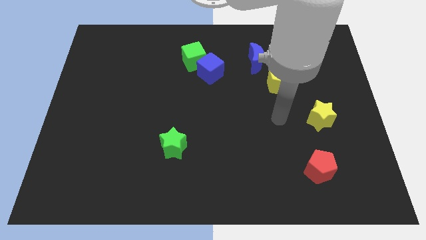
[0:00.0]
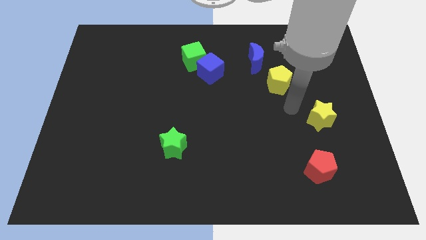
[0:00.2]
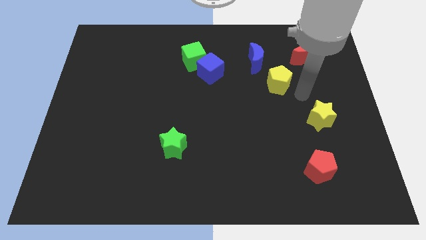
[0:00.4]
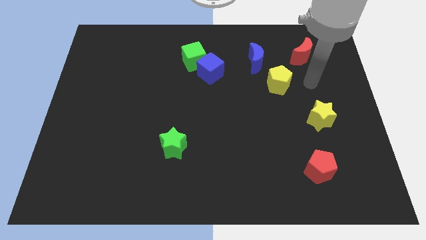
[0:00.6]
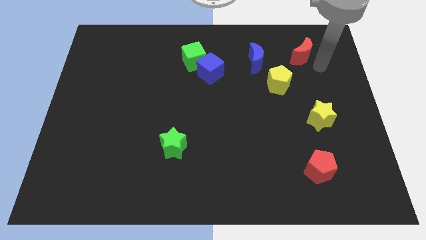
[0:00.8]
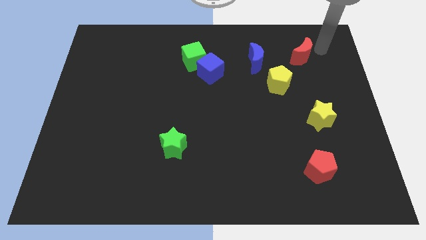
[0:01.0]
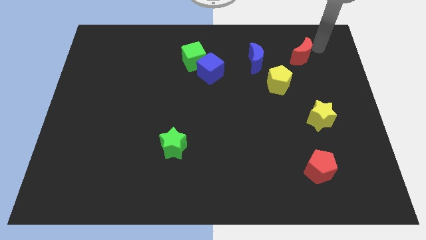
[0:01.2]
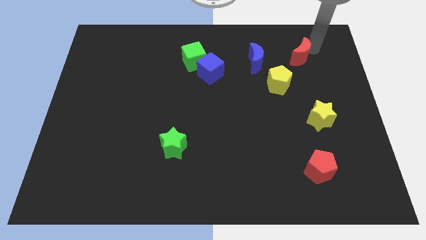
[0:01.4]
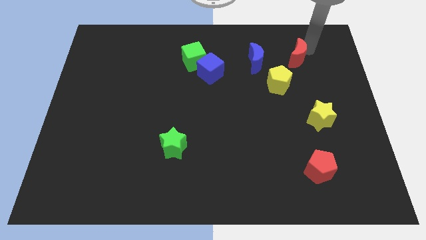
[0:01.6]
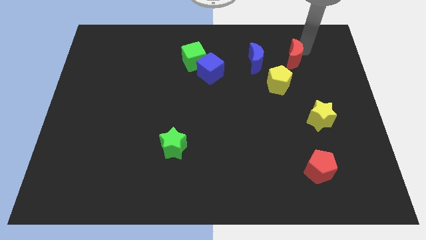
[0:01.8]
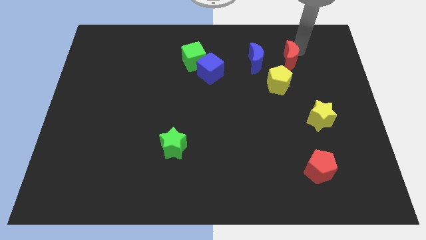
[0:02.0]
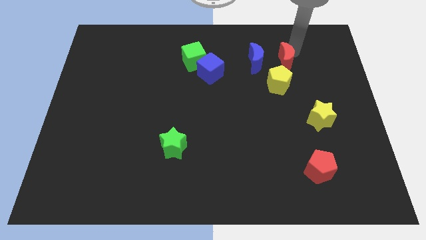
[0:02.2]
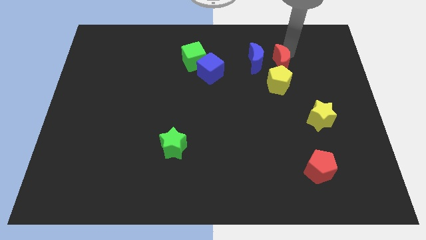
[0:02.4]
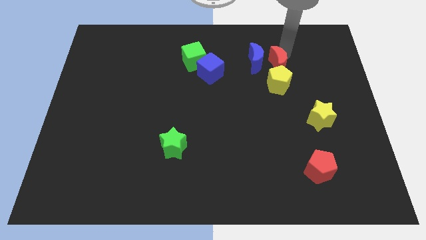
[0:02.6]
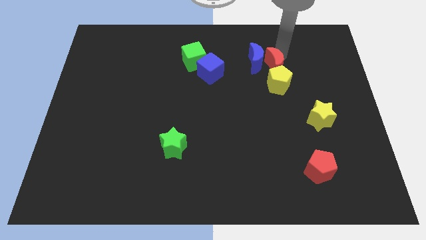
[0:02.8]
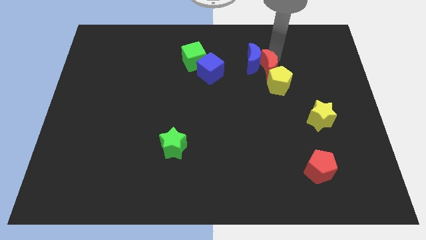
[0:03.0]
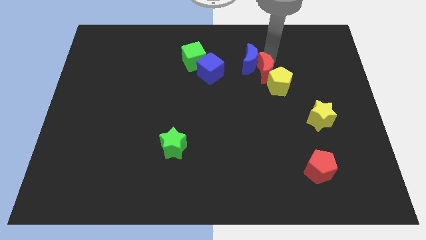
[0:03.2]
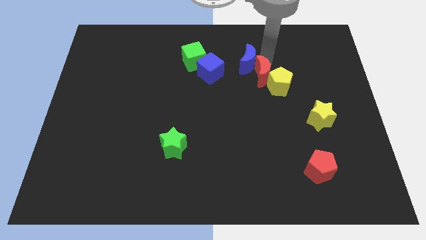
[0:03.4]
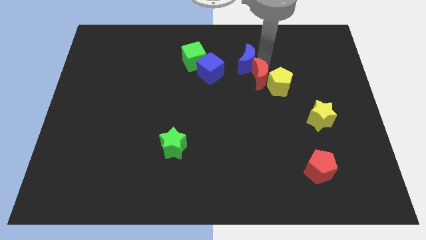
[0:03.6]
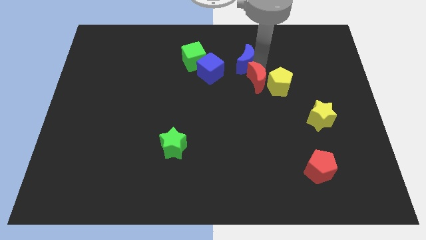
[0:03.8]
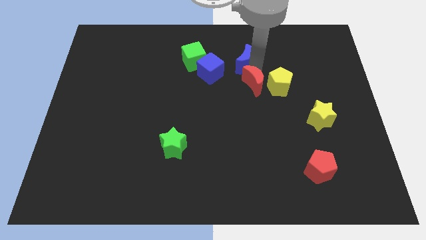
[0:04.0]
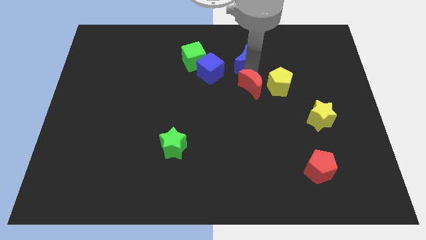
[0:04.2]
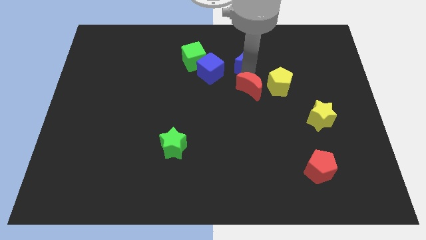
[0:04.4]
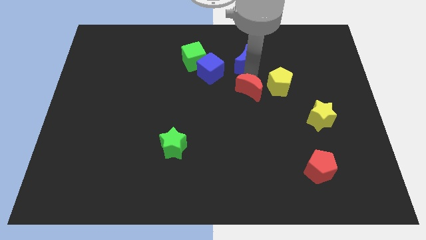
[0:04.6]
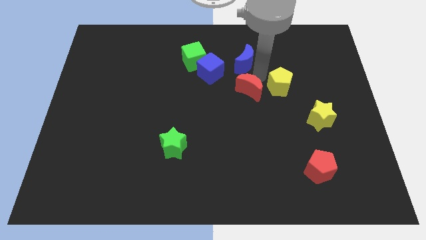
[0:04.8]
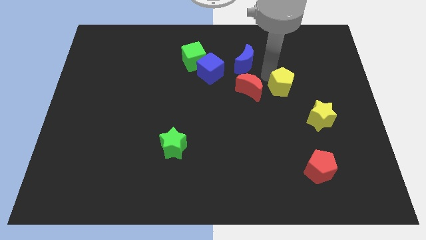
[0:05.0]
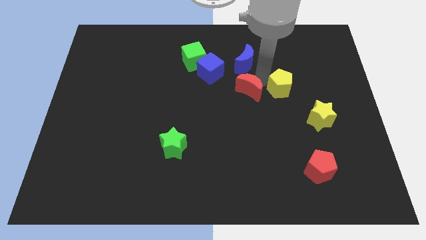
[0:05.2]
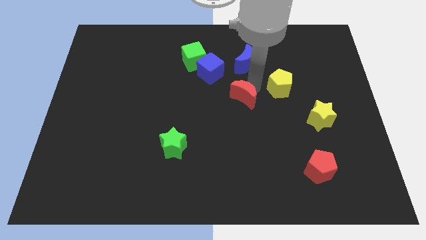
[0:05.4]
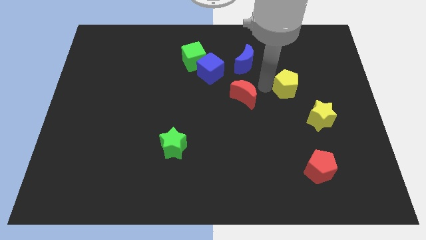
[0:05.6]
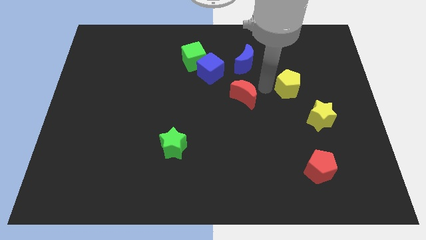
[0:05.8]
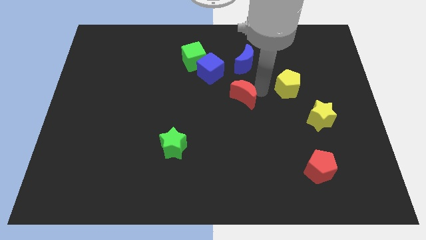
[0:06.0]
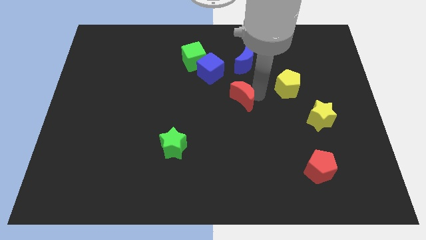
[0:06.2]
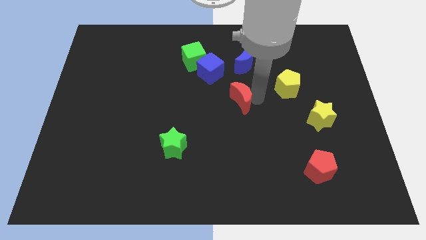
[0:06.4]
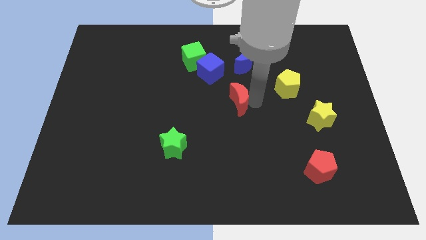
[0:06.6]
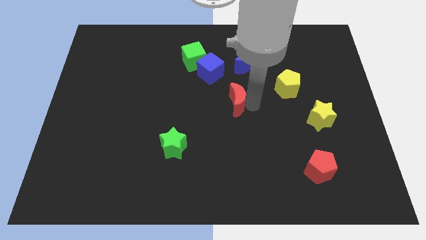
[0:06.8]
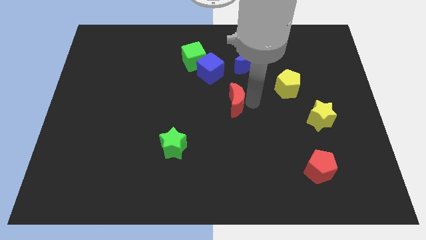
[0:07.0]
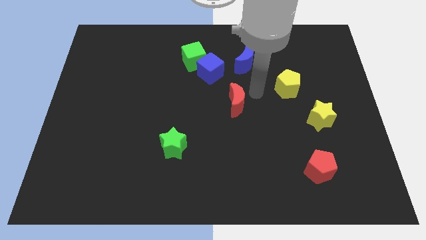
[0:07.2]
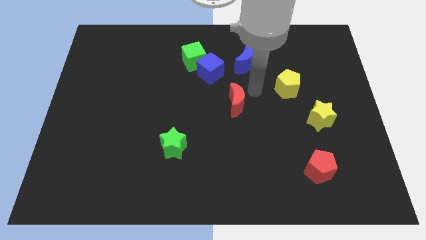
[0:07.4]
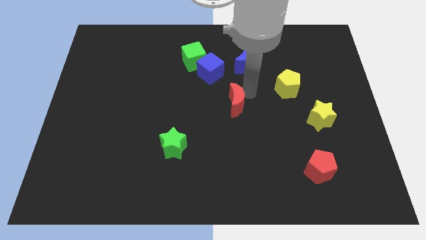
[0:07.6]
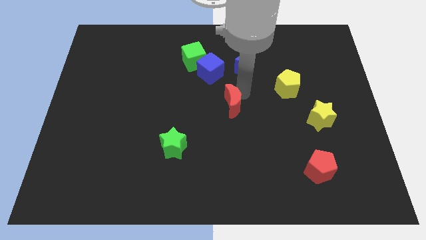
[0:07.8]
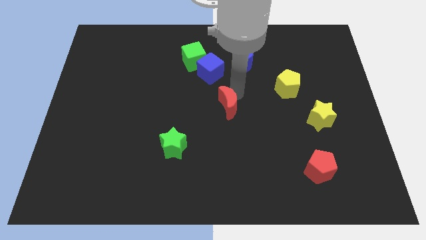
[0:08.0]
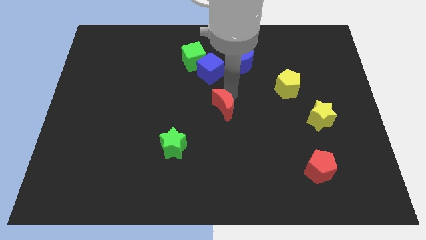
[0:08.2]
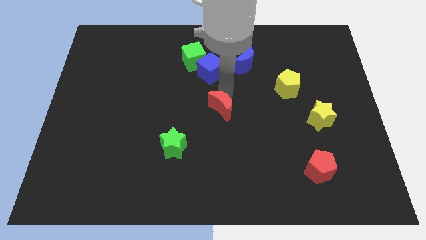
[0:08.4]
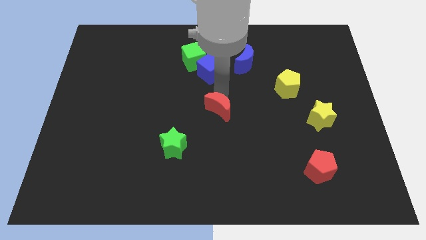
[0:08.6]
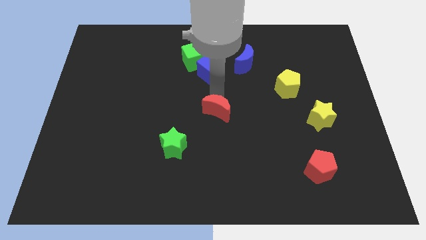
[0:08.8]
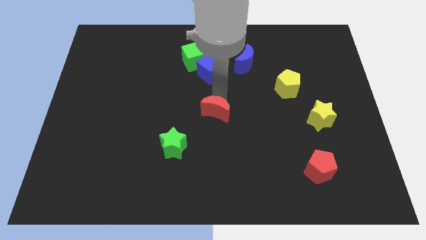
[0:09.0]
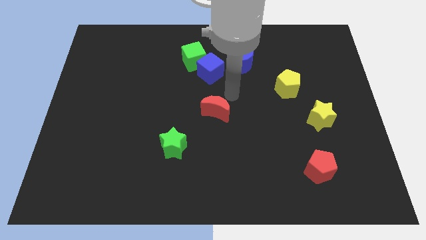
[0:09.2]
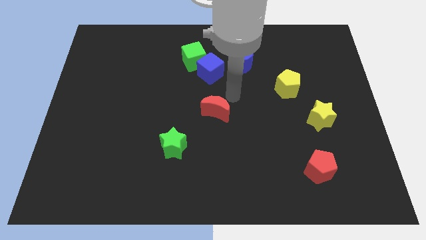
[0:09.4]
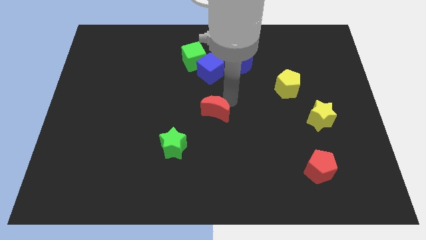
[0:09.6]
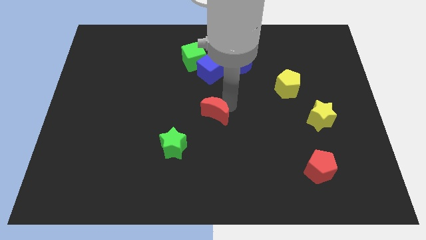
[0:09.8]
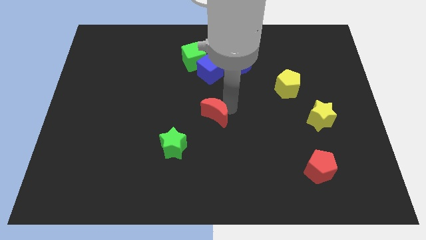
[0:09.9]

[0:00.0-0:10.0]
slide the red moon diagonally up and to the right of the green star

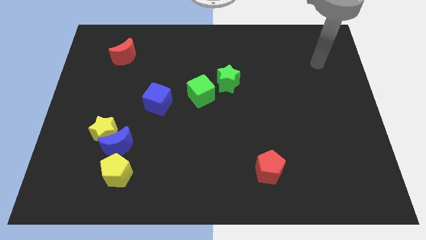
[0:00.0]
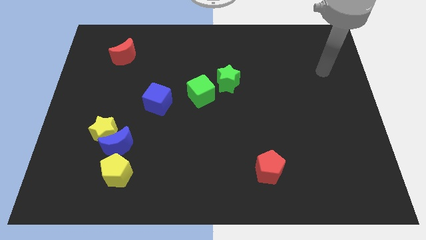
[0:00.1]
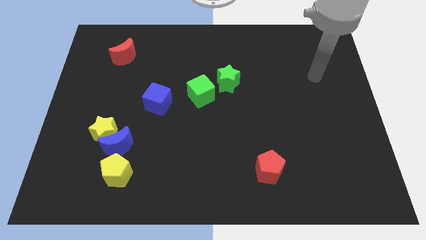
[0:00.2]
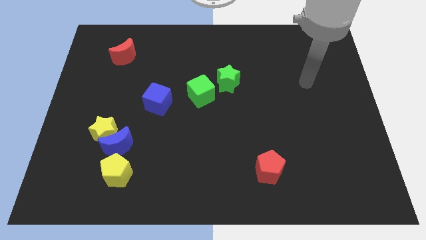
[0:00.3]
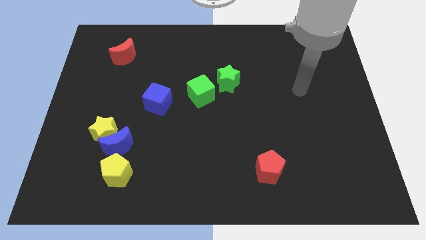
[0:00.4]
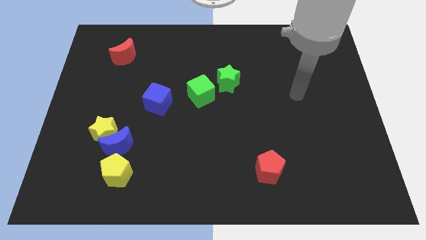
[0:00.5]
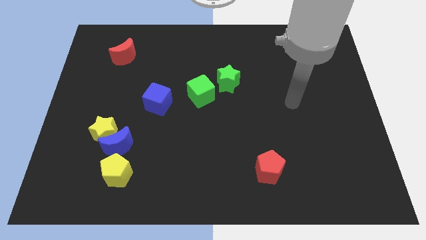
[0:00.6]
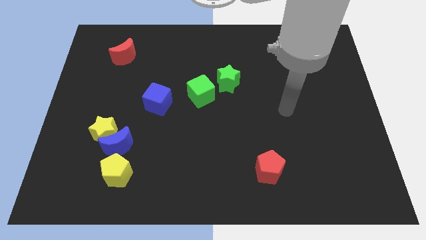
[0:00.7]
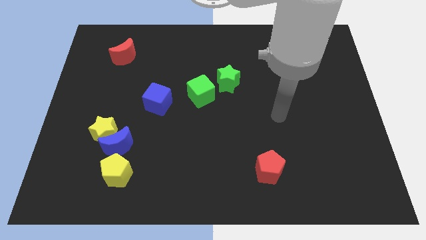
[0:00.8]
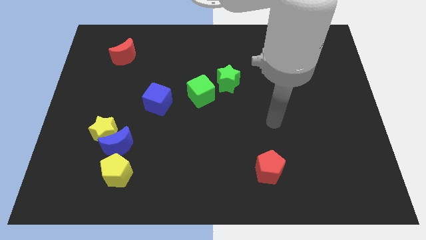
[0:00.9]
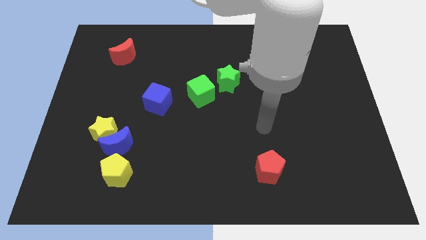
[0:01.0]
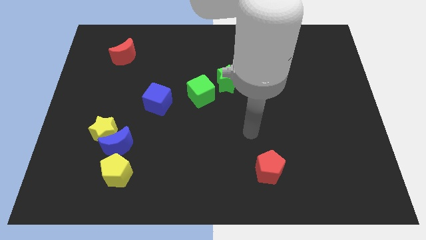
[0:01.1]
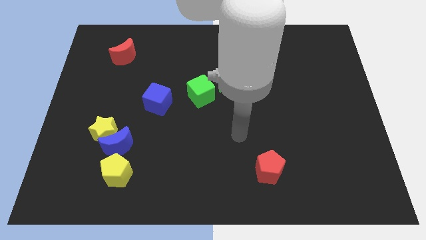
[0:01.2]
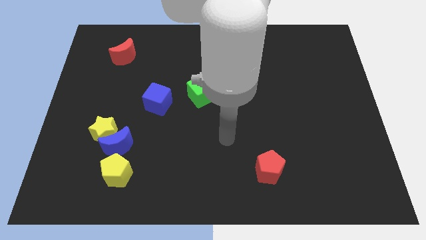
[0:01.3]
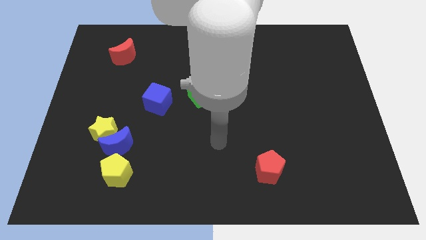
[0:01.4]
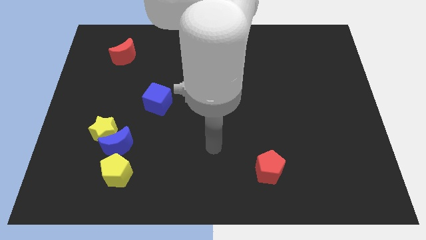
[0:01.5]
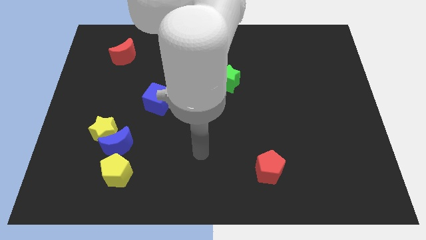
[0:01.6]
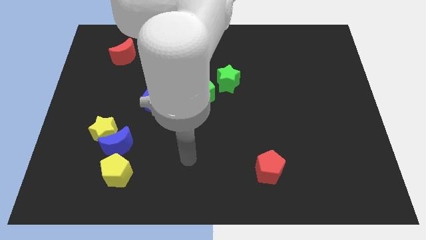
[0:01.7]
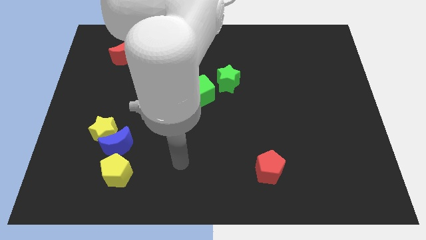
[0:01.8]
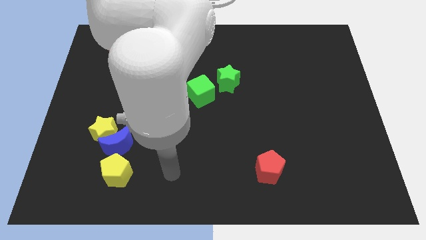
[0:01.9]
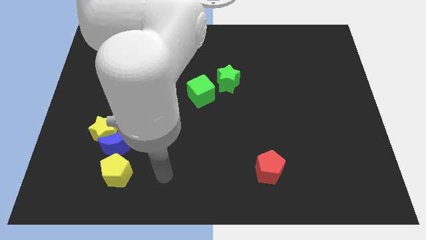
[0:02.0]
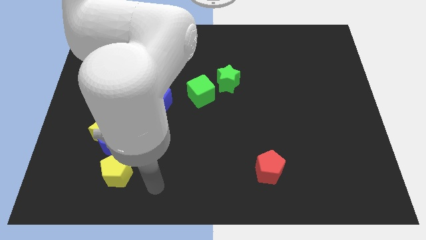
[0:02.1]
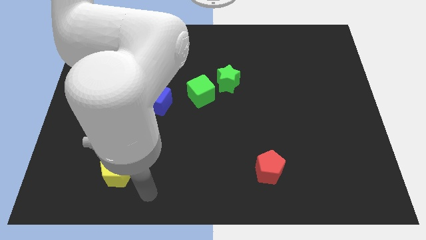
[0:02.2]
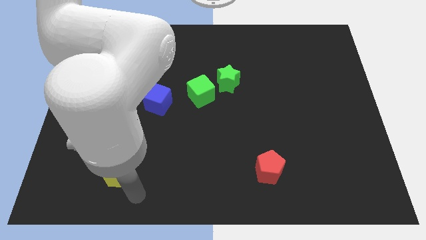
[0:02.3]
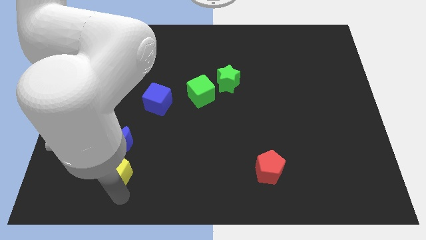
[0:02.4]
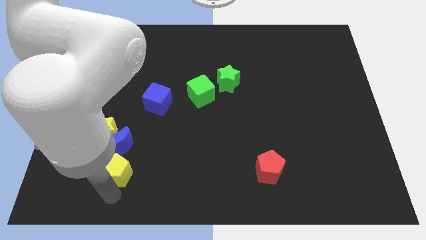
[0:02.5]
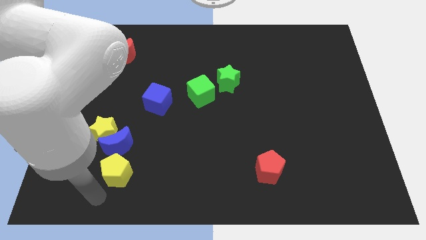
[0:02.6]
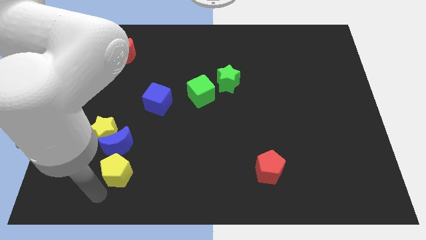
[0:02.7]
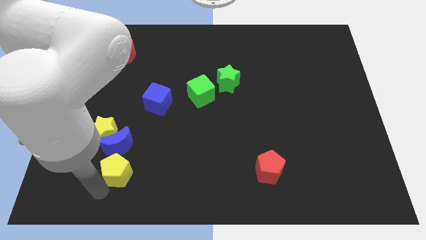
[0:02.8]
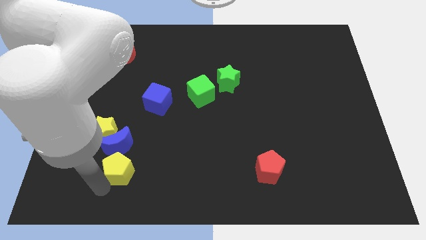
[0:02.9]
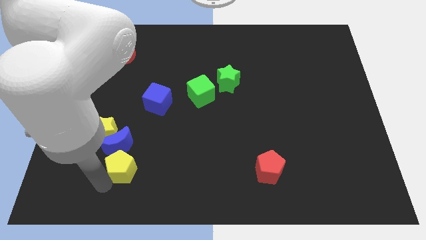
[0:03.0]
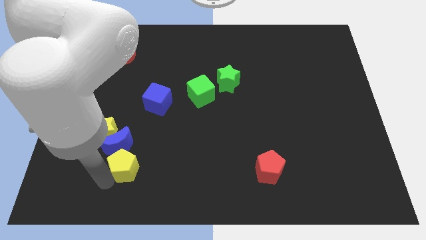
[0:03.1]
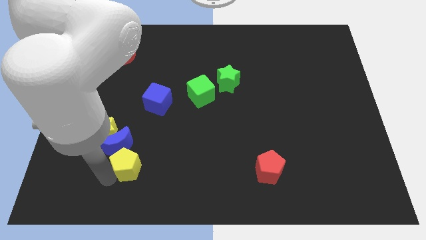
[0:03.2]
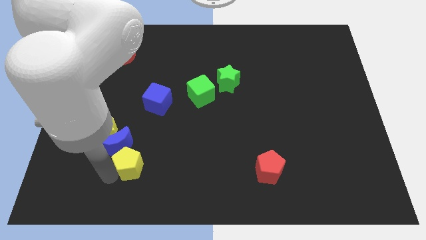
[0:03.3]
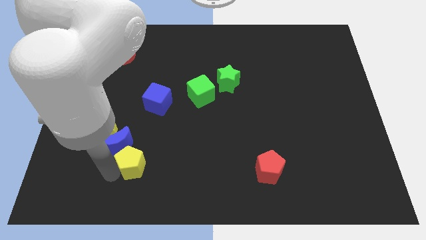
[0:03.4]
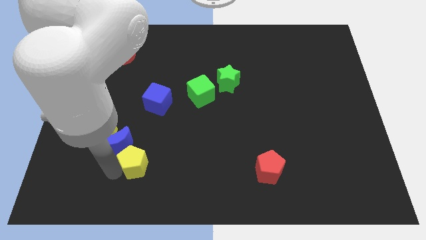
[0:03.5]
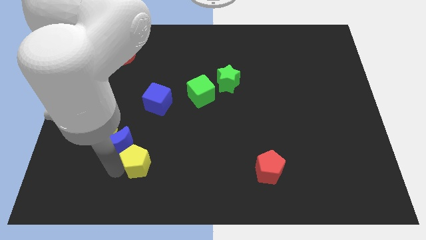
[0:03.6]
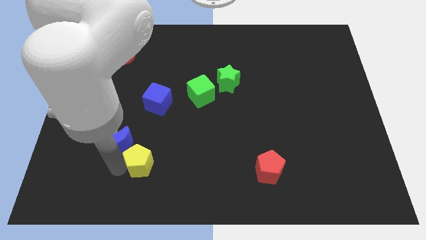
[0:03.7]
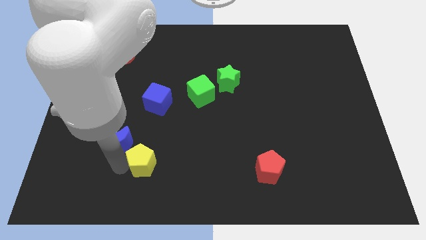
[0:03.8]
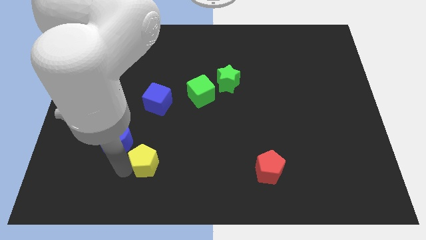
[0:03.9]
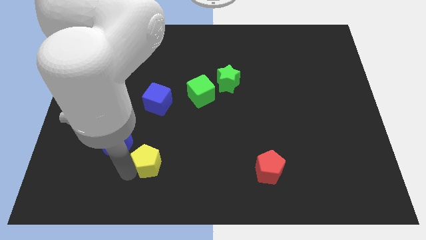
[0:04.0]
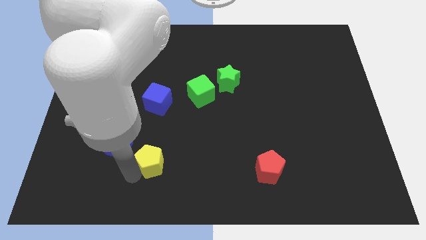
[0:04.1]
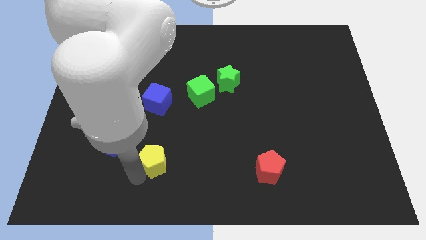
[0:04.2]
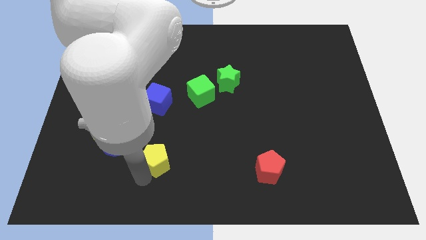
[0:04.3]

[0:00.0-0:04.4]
slide the yellow pentagon to the bottom of the blue cube
